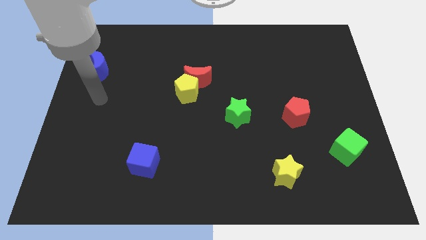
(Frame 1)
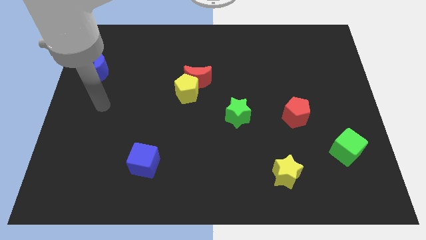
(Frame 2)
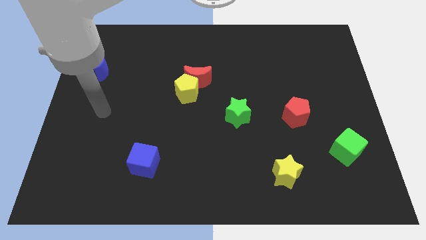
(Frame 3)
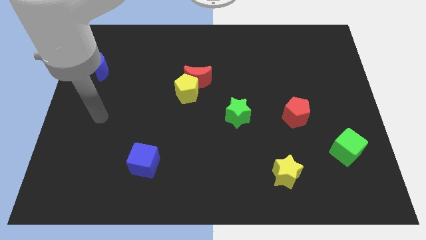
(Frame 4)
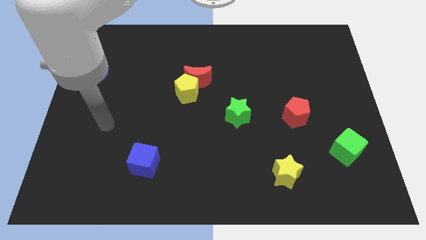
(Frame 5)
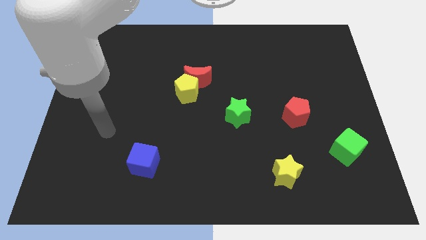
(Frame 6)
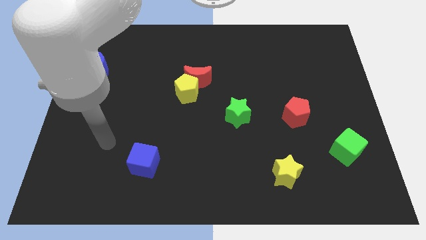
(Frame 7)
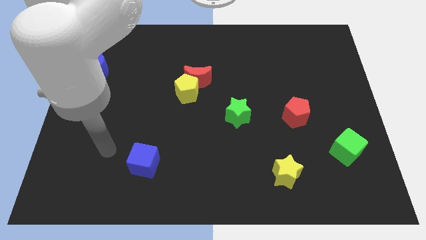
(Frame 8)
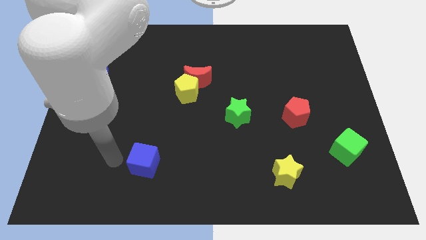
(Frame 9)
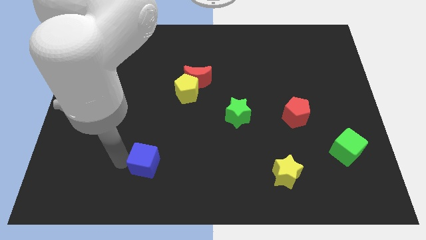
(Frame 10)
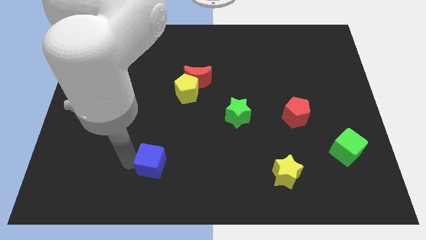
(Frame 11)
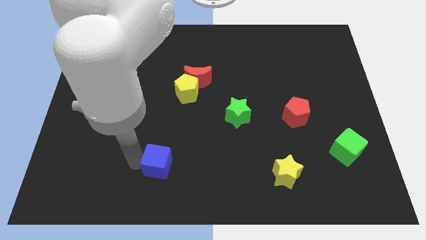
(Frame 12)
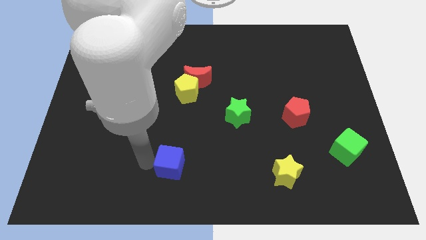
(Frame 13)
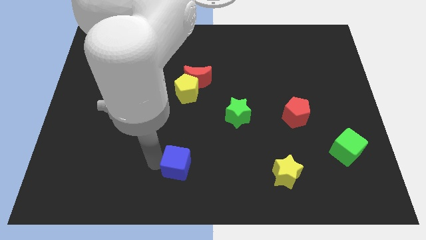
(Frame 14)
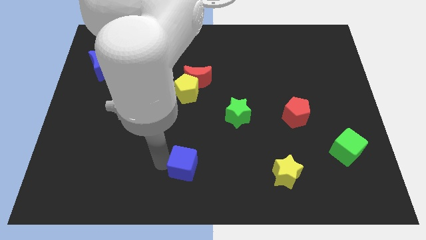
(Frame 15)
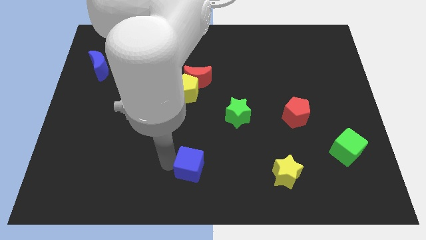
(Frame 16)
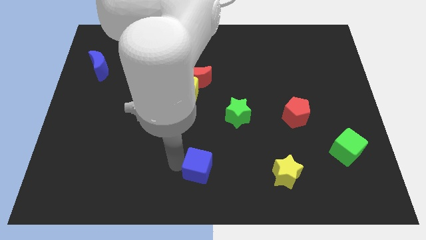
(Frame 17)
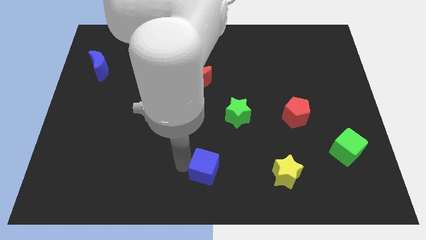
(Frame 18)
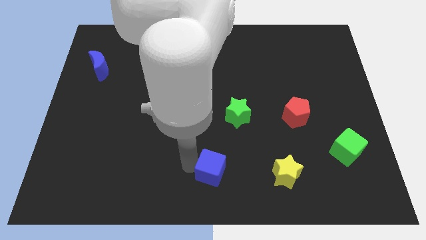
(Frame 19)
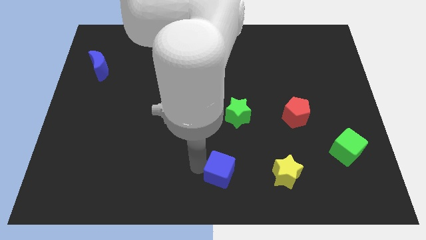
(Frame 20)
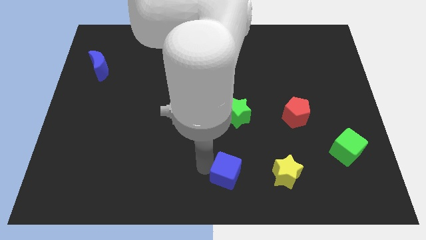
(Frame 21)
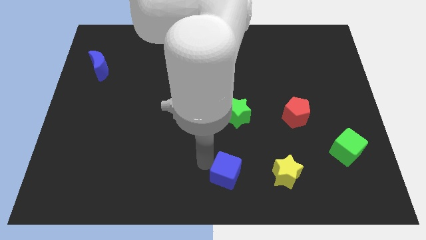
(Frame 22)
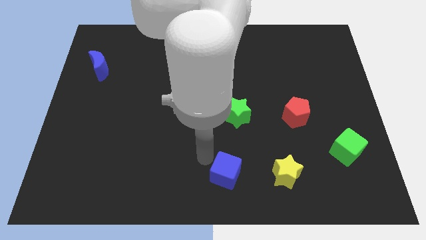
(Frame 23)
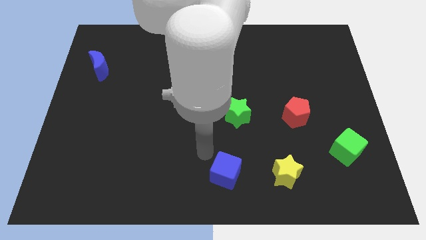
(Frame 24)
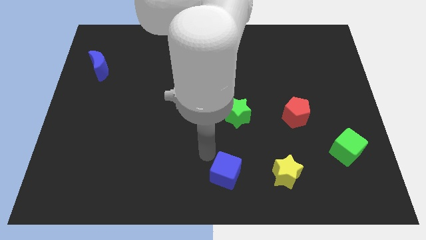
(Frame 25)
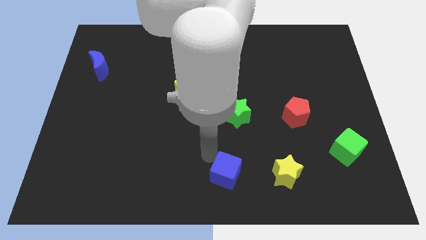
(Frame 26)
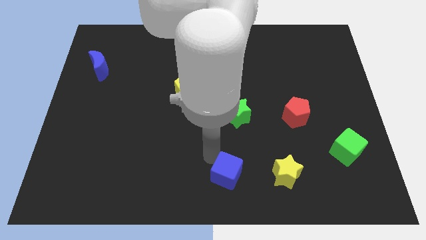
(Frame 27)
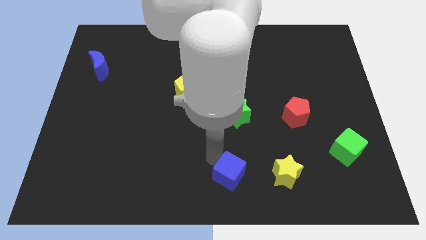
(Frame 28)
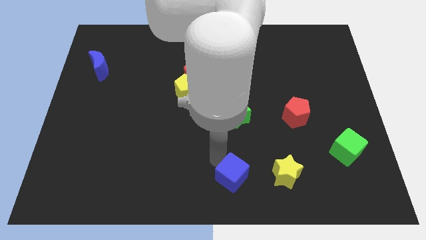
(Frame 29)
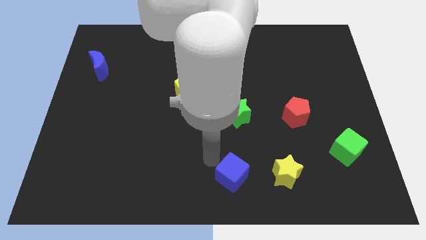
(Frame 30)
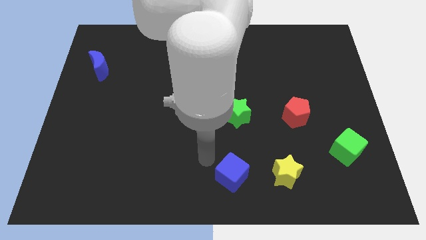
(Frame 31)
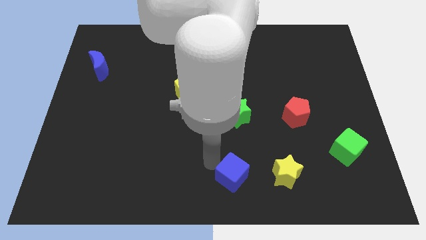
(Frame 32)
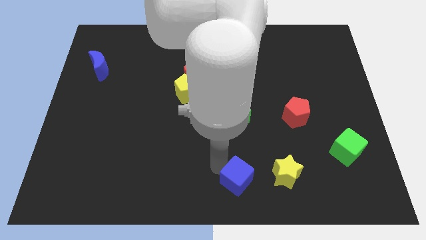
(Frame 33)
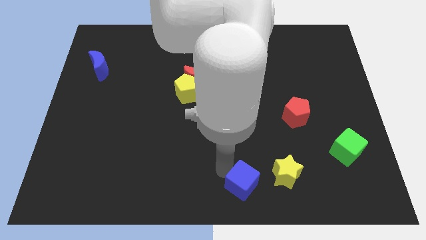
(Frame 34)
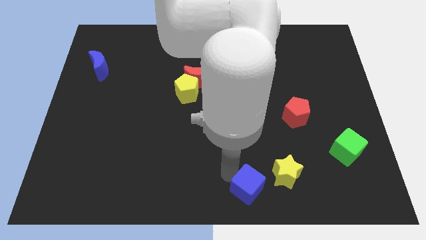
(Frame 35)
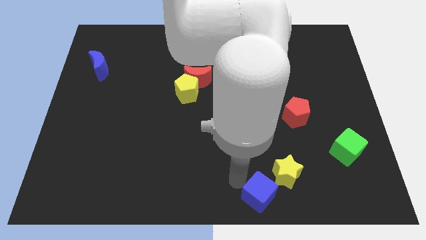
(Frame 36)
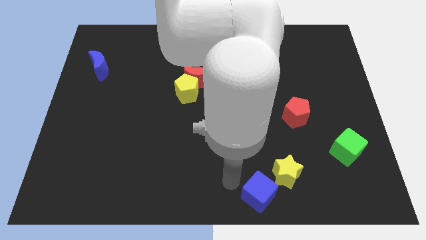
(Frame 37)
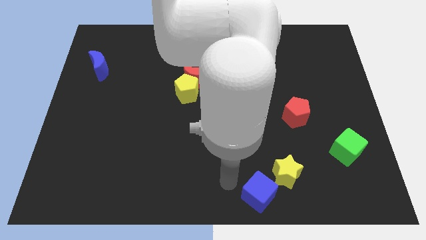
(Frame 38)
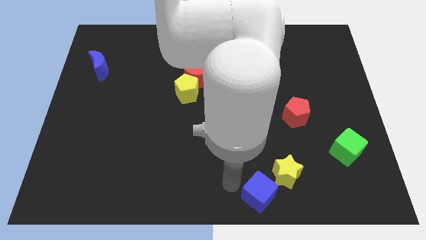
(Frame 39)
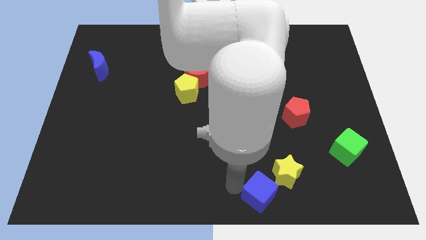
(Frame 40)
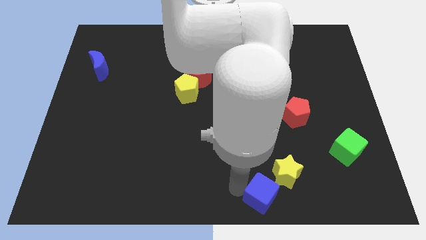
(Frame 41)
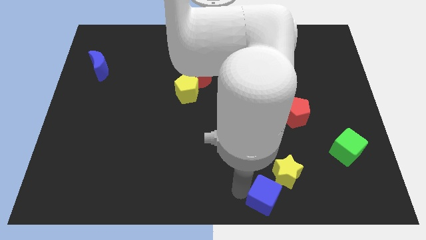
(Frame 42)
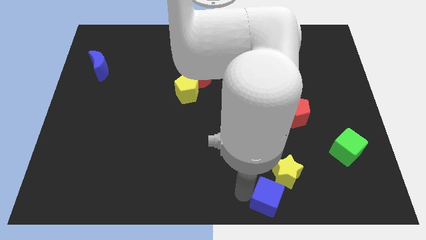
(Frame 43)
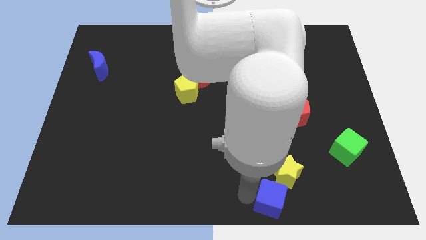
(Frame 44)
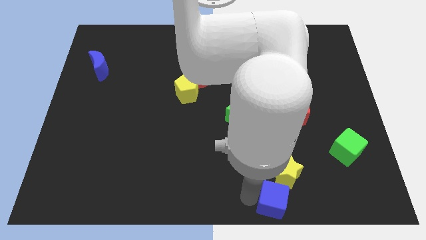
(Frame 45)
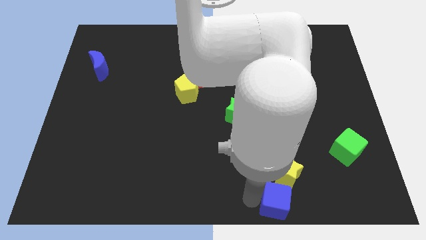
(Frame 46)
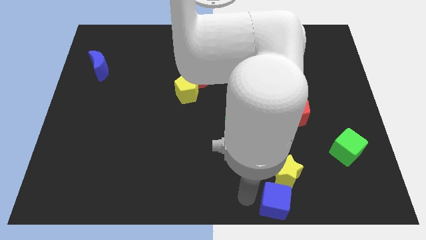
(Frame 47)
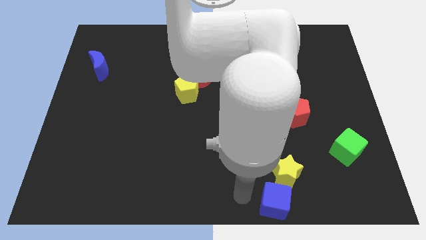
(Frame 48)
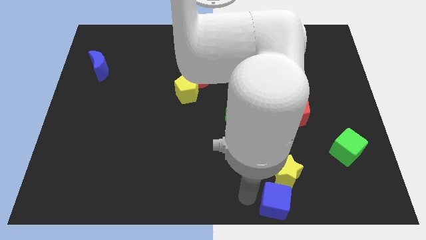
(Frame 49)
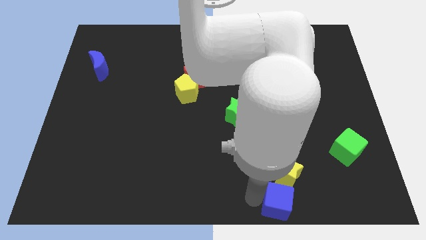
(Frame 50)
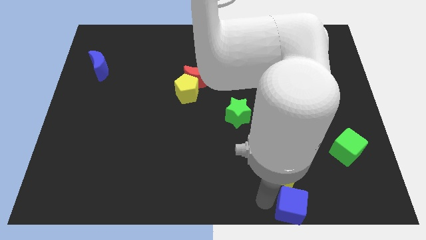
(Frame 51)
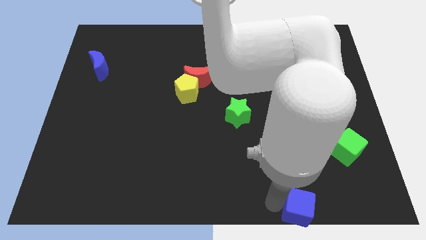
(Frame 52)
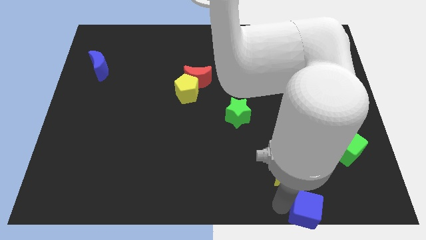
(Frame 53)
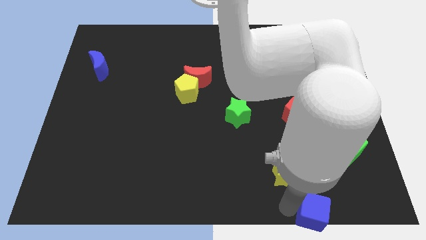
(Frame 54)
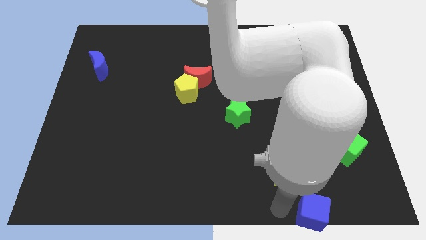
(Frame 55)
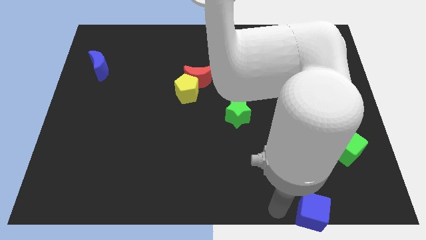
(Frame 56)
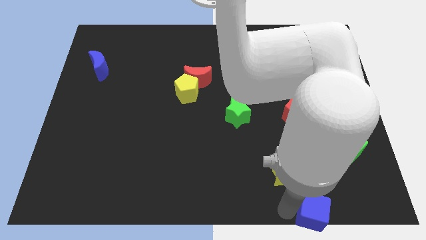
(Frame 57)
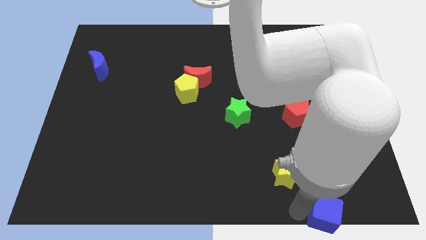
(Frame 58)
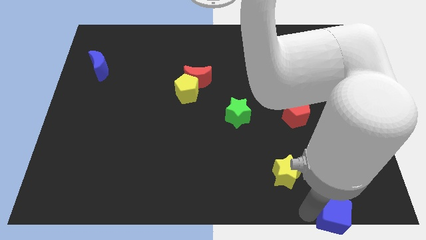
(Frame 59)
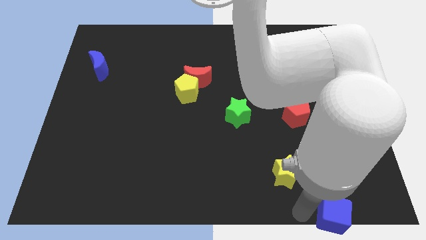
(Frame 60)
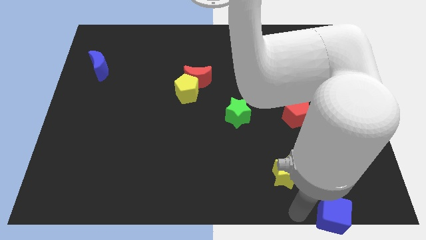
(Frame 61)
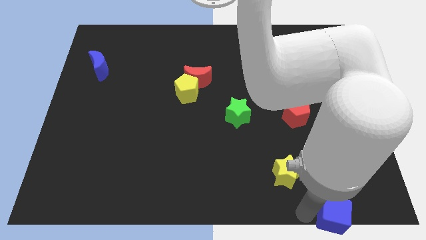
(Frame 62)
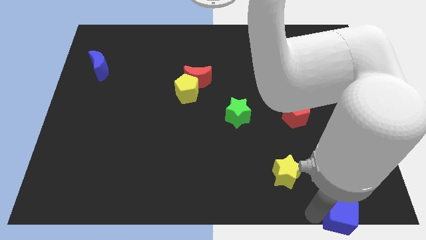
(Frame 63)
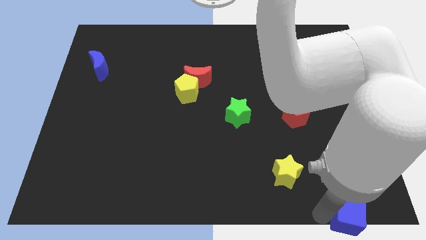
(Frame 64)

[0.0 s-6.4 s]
push the blue cube to the bottom right

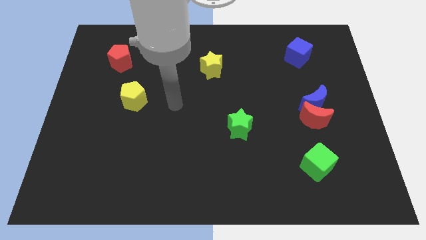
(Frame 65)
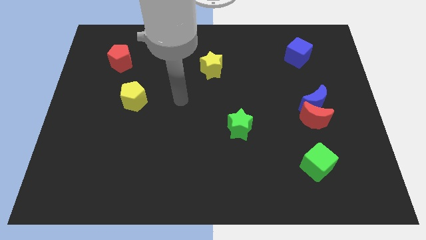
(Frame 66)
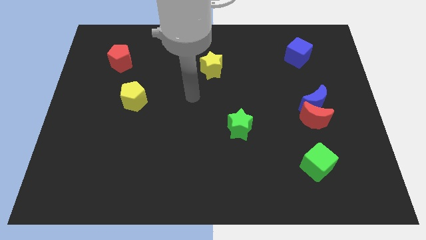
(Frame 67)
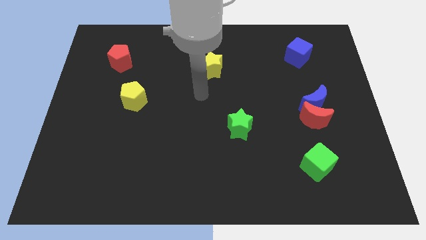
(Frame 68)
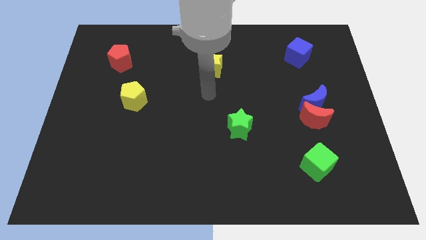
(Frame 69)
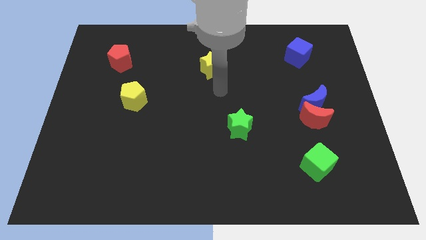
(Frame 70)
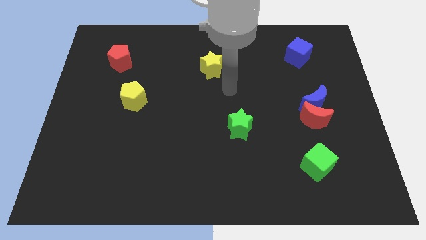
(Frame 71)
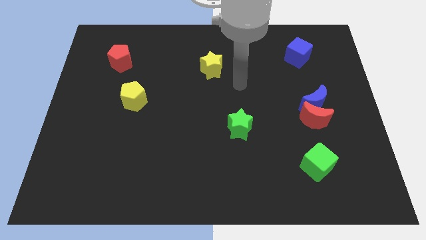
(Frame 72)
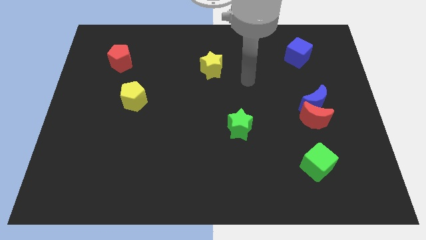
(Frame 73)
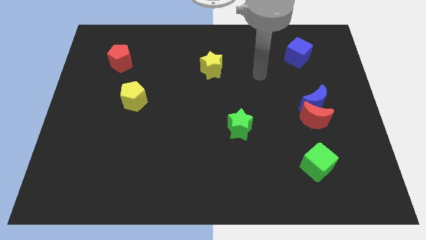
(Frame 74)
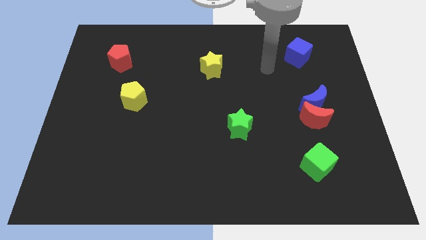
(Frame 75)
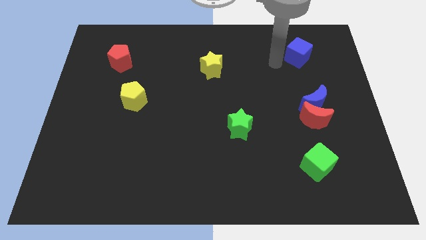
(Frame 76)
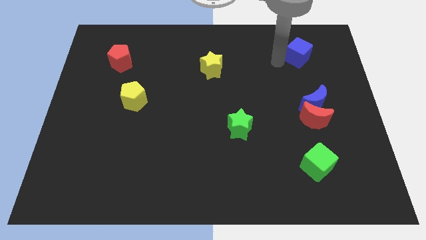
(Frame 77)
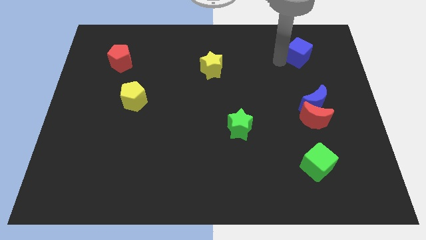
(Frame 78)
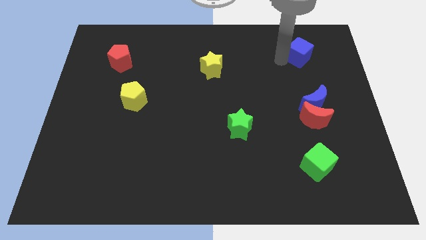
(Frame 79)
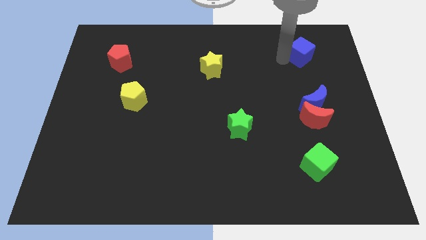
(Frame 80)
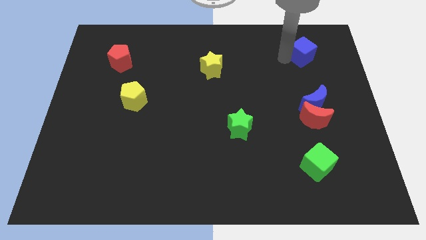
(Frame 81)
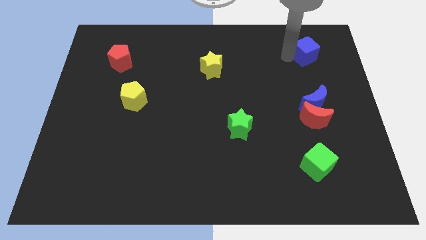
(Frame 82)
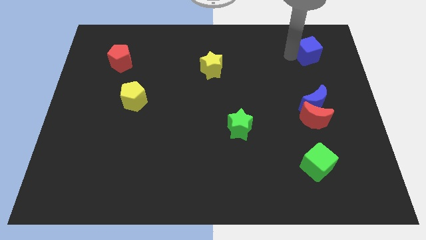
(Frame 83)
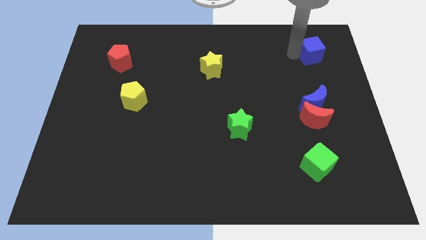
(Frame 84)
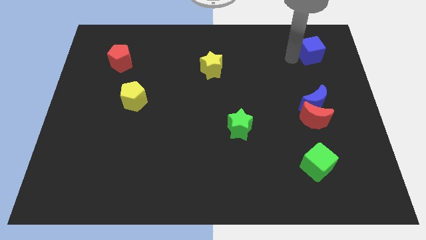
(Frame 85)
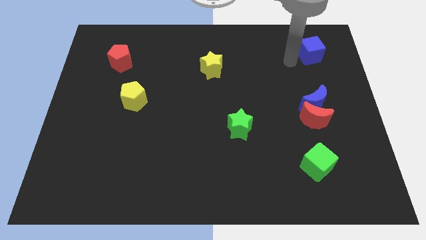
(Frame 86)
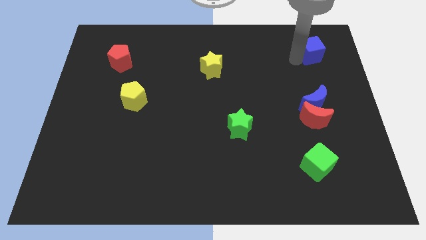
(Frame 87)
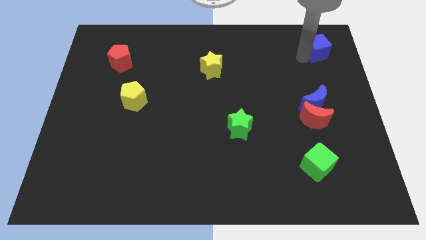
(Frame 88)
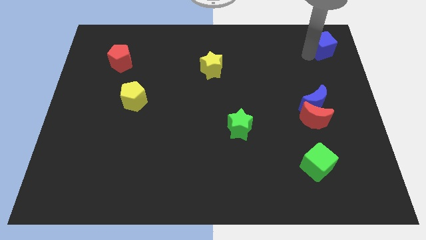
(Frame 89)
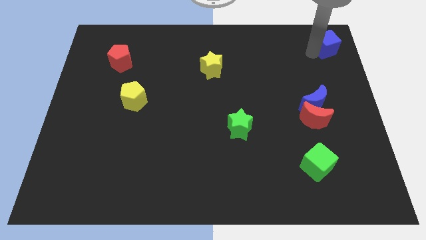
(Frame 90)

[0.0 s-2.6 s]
move the blue cube to the top right corner
